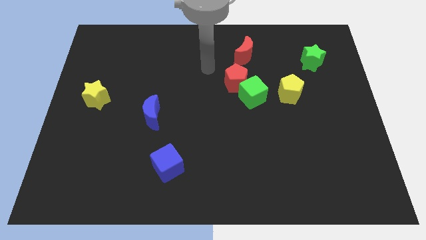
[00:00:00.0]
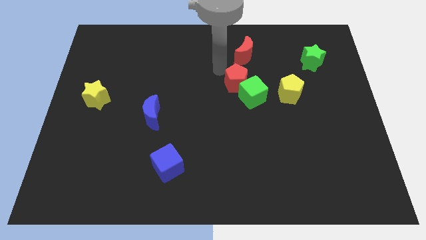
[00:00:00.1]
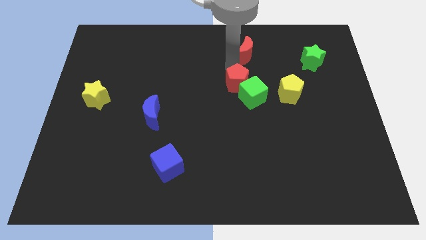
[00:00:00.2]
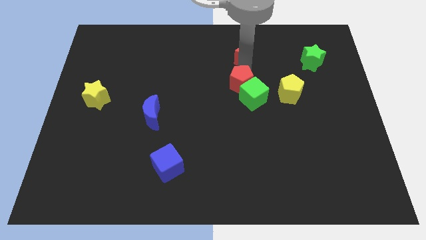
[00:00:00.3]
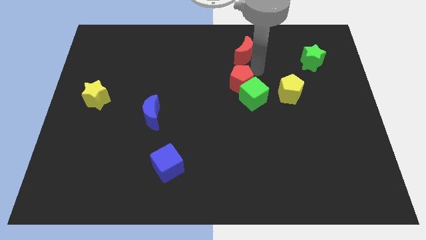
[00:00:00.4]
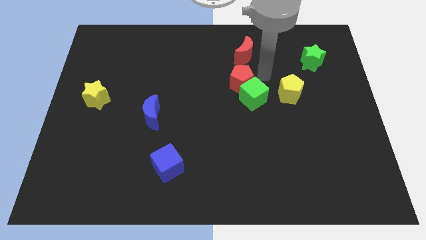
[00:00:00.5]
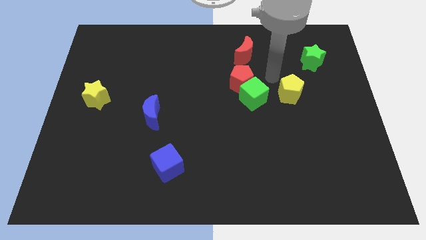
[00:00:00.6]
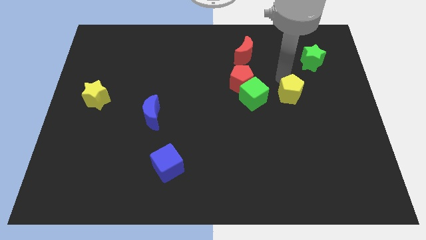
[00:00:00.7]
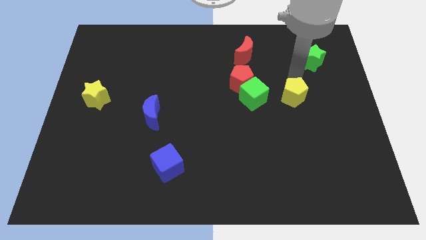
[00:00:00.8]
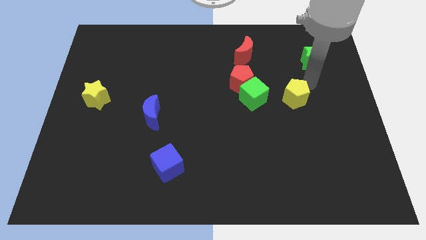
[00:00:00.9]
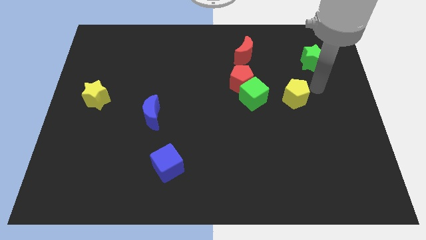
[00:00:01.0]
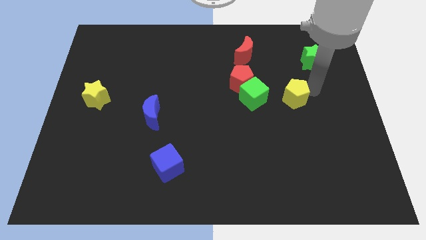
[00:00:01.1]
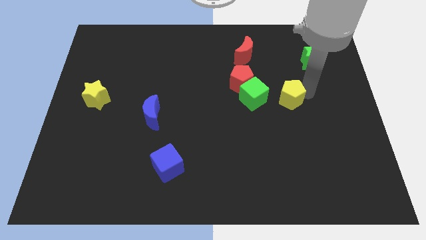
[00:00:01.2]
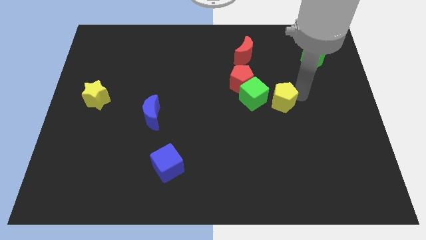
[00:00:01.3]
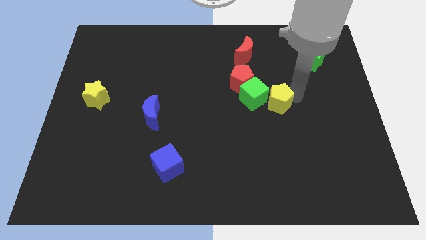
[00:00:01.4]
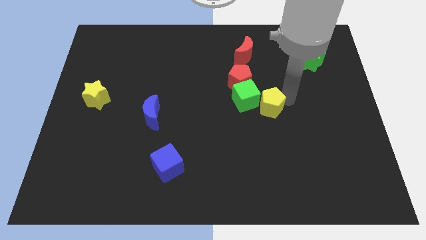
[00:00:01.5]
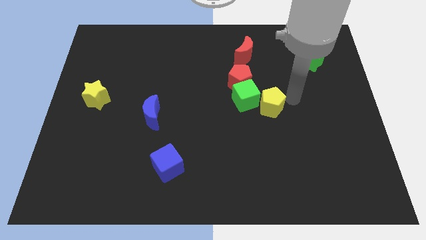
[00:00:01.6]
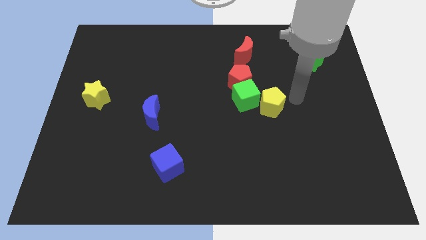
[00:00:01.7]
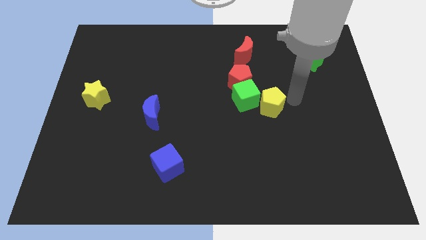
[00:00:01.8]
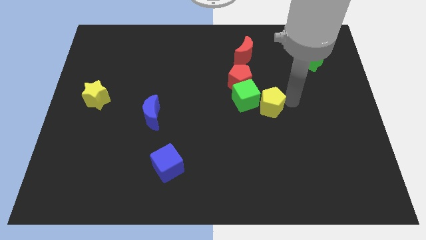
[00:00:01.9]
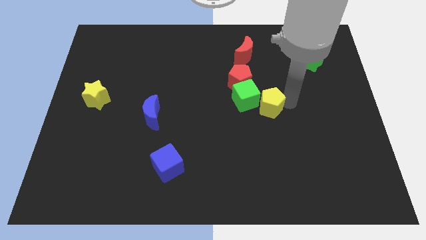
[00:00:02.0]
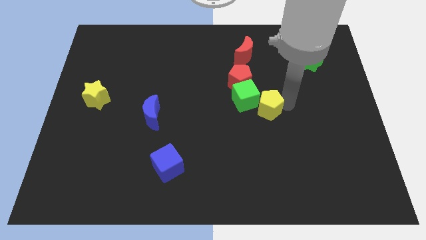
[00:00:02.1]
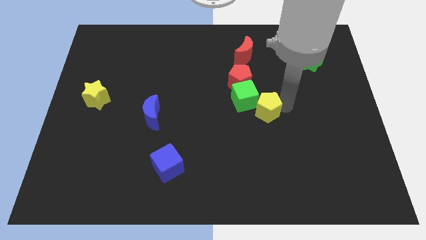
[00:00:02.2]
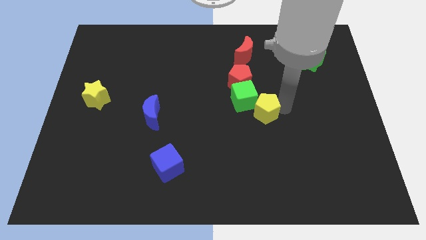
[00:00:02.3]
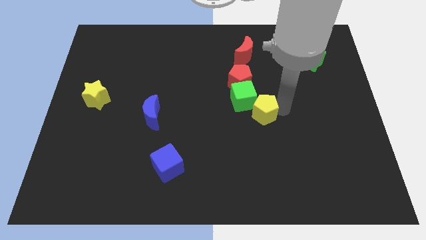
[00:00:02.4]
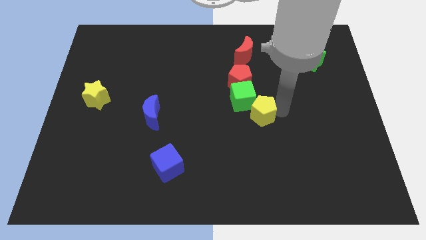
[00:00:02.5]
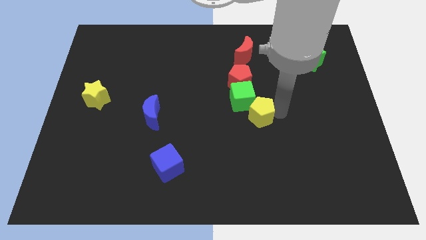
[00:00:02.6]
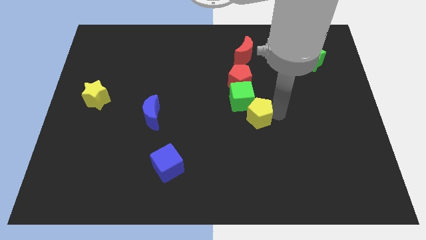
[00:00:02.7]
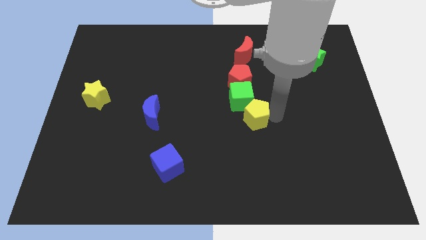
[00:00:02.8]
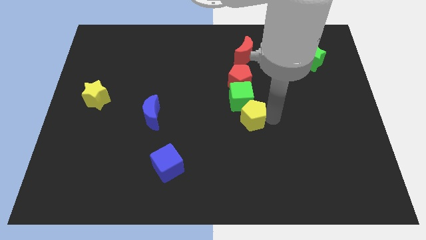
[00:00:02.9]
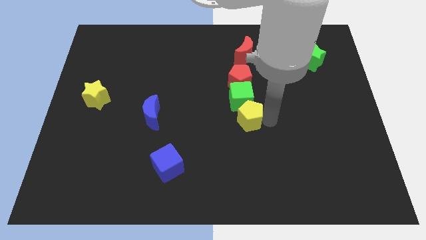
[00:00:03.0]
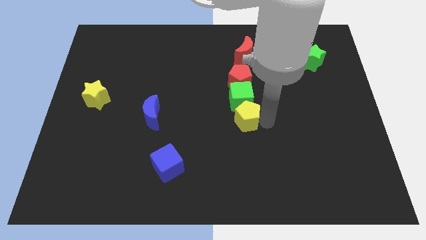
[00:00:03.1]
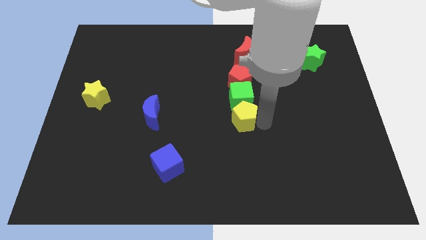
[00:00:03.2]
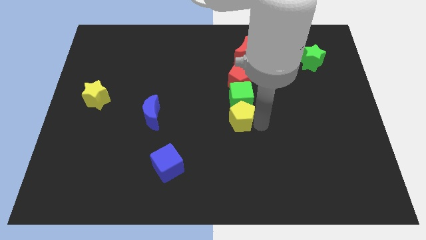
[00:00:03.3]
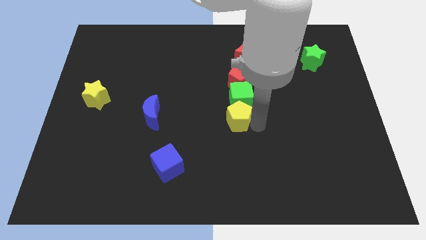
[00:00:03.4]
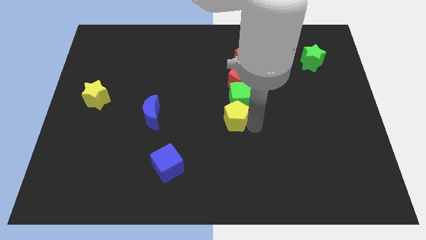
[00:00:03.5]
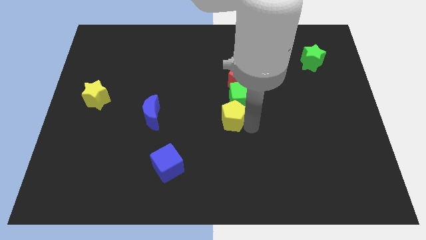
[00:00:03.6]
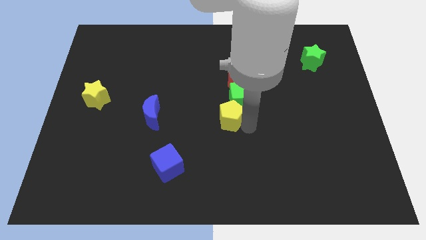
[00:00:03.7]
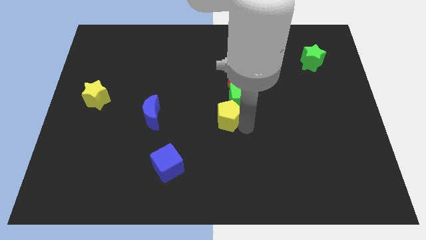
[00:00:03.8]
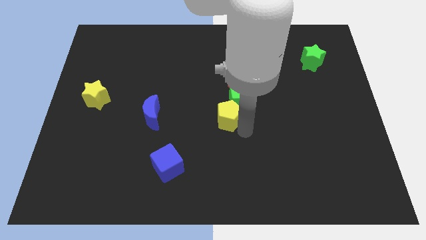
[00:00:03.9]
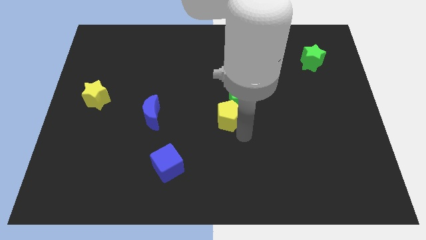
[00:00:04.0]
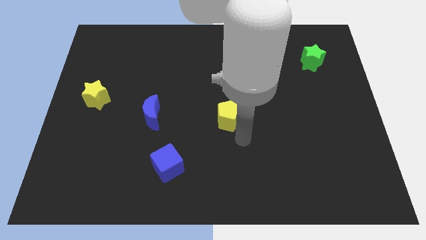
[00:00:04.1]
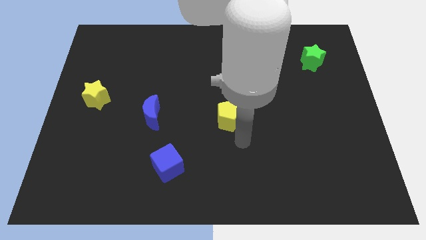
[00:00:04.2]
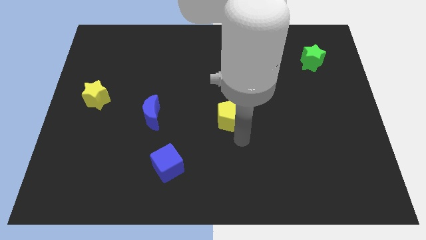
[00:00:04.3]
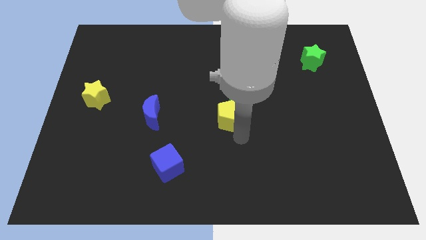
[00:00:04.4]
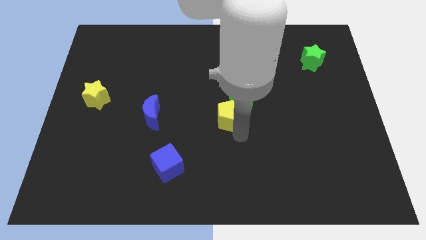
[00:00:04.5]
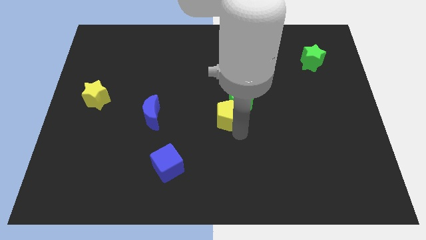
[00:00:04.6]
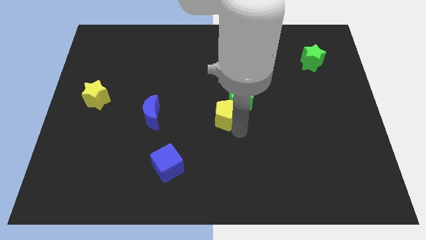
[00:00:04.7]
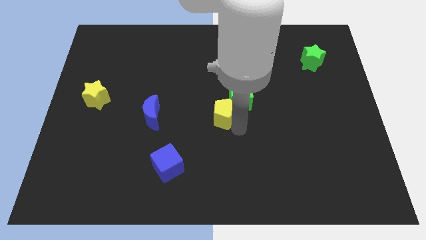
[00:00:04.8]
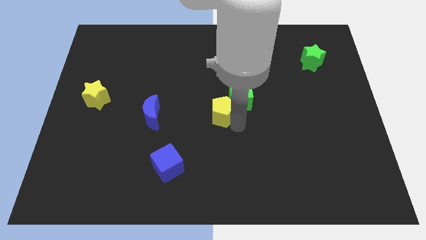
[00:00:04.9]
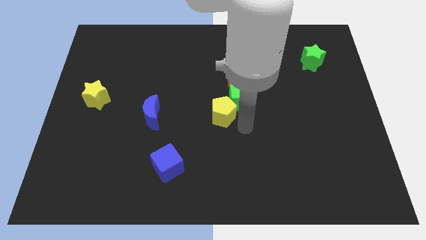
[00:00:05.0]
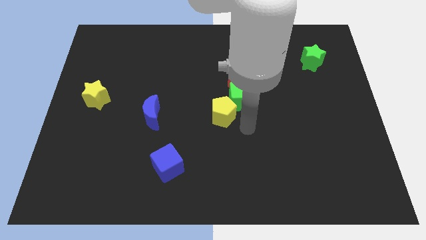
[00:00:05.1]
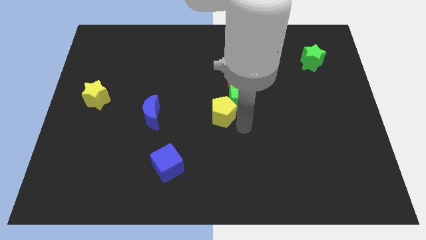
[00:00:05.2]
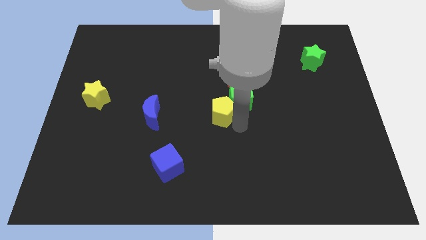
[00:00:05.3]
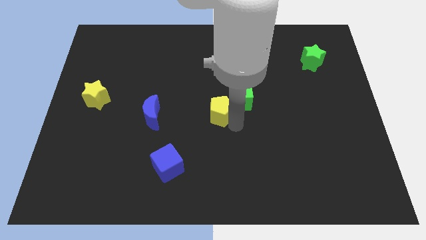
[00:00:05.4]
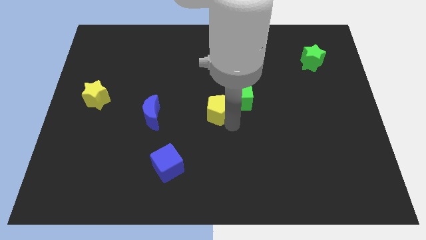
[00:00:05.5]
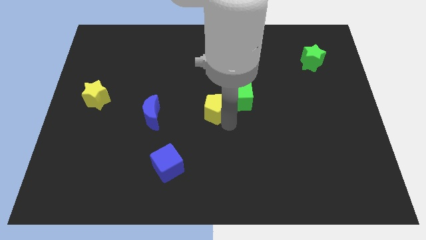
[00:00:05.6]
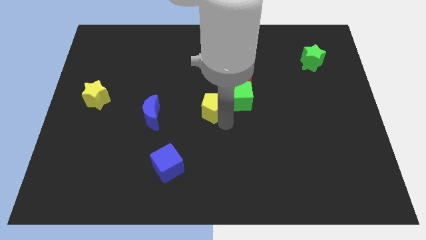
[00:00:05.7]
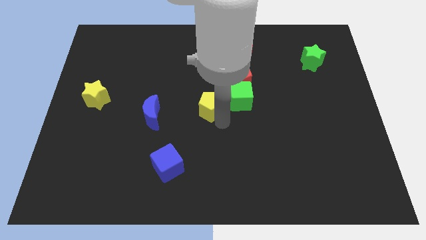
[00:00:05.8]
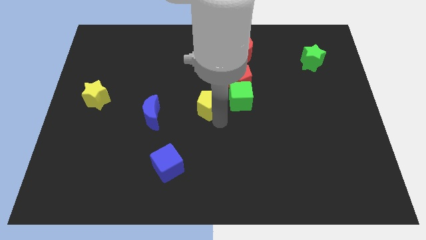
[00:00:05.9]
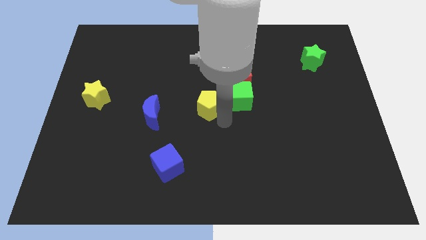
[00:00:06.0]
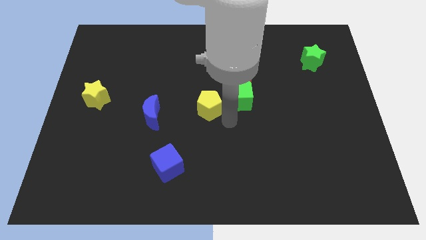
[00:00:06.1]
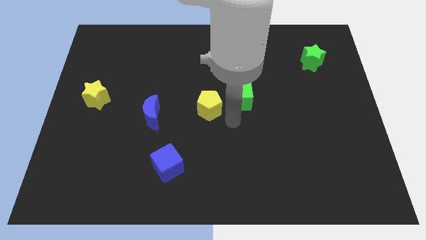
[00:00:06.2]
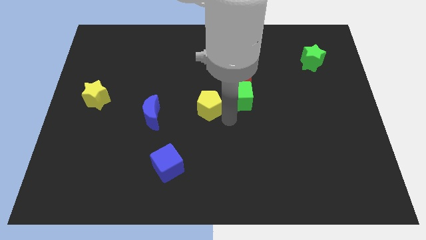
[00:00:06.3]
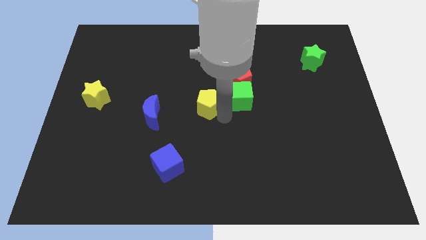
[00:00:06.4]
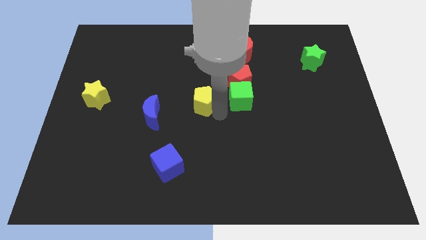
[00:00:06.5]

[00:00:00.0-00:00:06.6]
push the yellow pentagon to the left

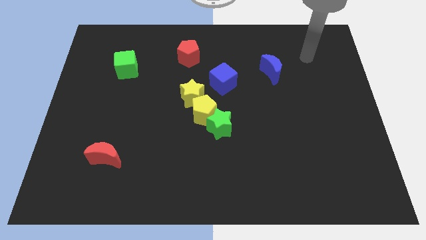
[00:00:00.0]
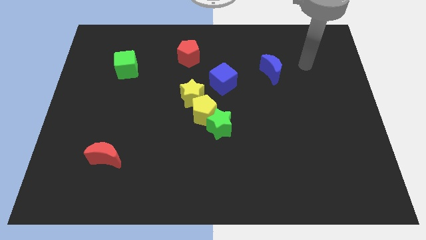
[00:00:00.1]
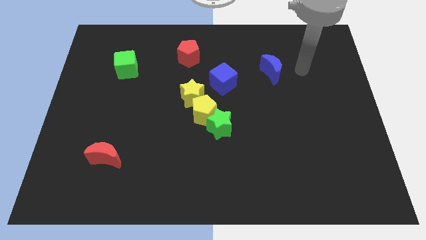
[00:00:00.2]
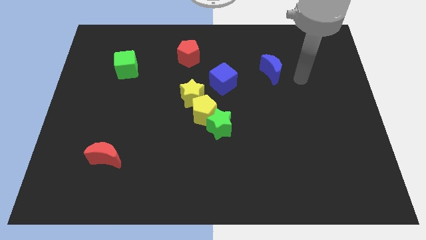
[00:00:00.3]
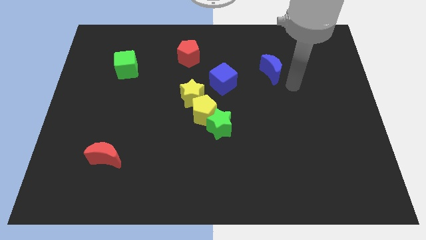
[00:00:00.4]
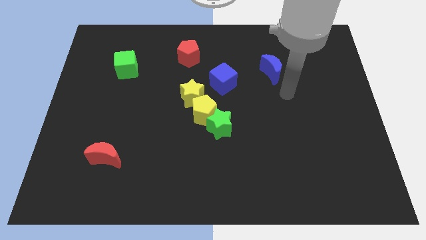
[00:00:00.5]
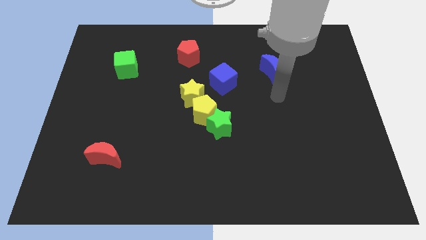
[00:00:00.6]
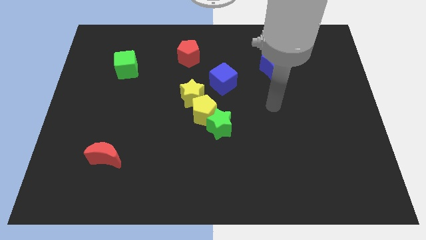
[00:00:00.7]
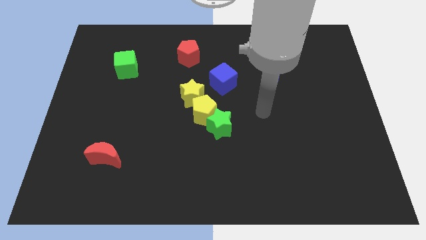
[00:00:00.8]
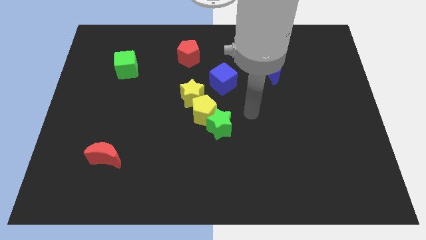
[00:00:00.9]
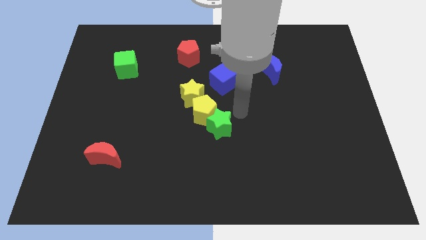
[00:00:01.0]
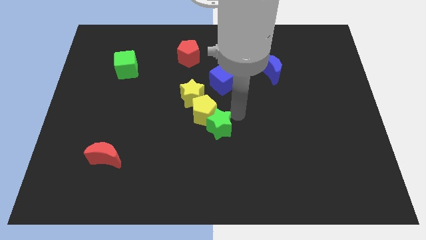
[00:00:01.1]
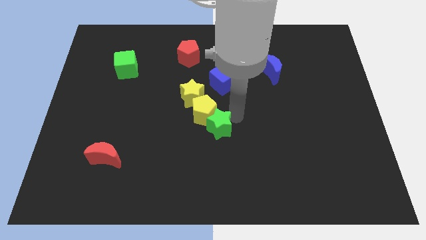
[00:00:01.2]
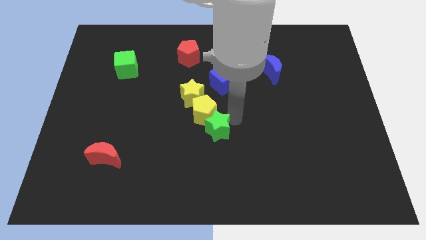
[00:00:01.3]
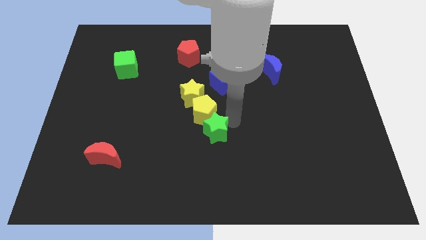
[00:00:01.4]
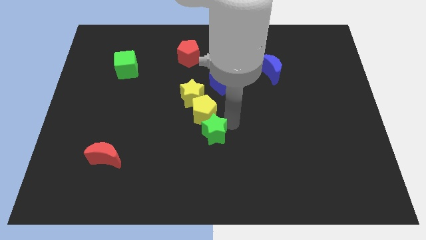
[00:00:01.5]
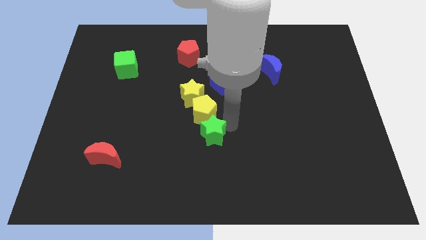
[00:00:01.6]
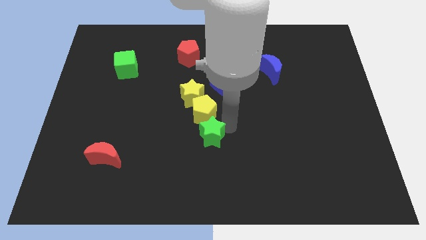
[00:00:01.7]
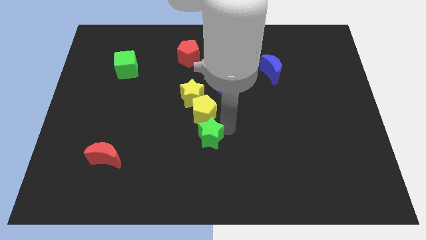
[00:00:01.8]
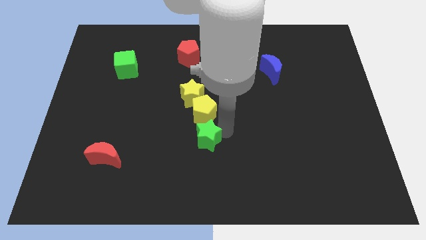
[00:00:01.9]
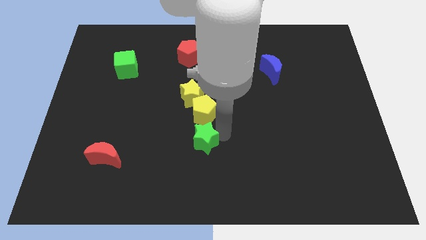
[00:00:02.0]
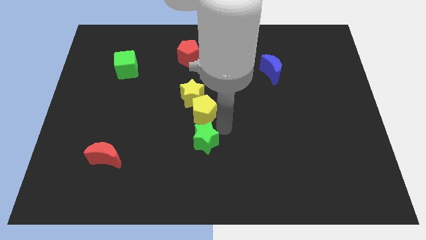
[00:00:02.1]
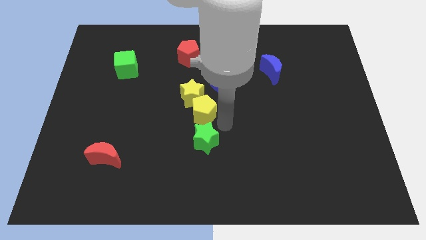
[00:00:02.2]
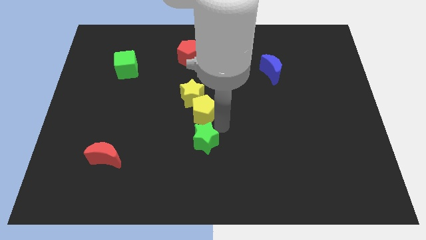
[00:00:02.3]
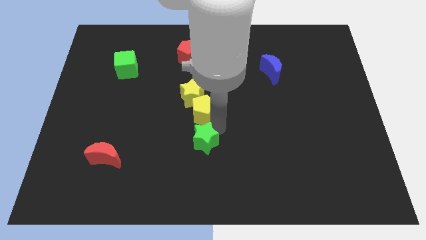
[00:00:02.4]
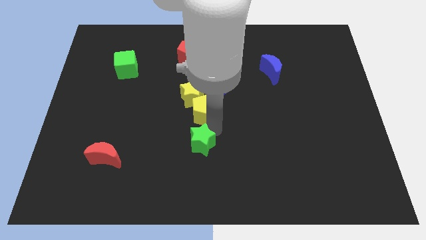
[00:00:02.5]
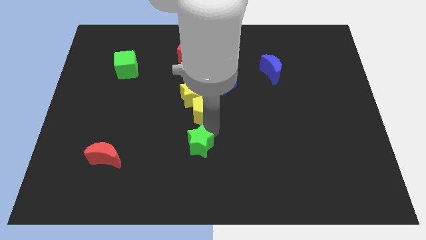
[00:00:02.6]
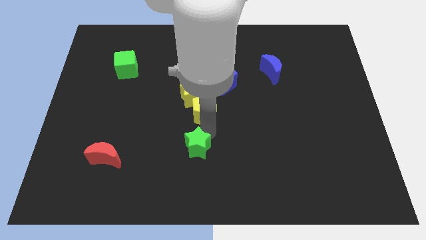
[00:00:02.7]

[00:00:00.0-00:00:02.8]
slide the green star a little downwards and left diagonally
